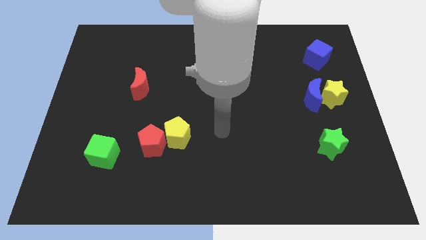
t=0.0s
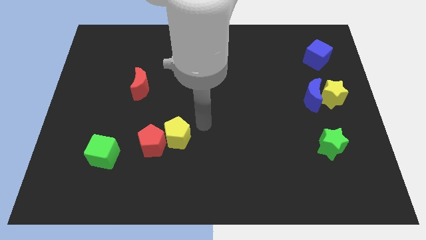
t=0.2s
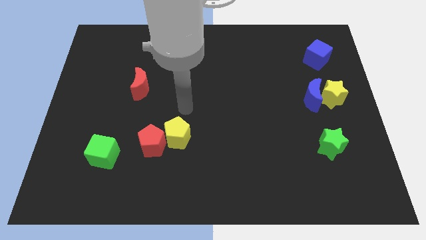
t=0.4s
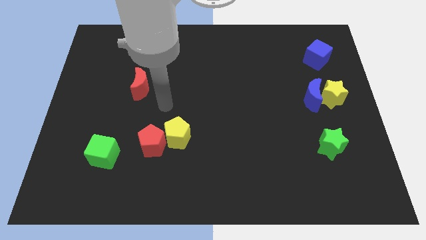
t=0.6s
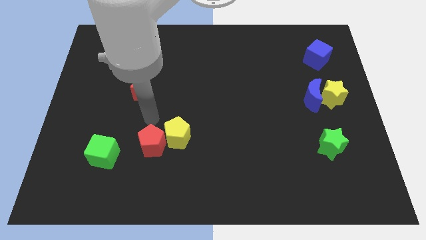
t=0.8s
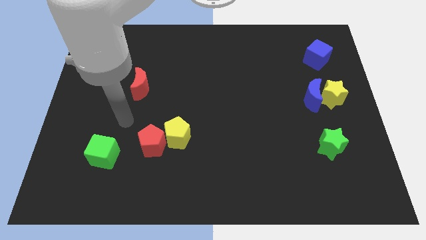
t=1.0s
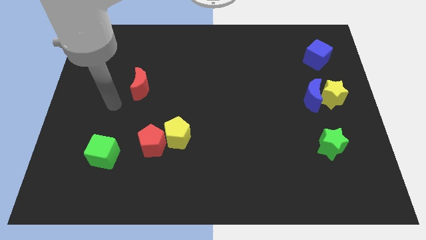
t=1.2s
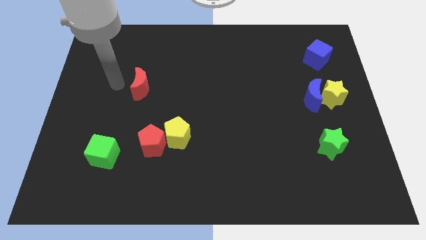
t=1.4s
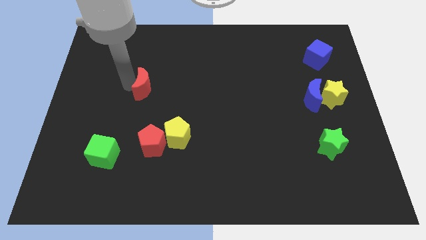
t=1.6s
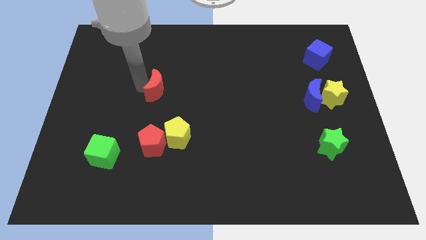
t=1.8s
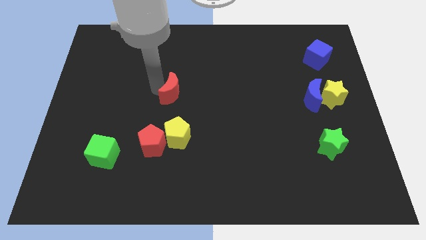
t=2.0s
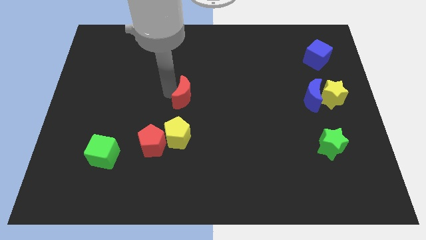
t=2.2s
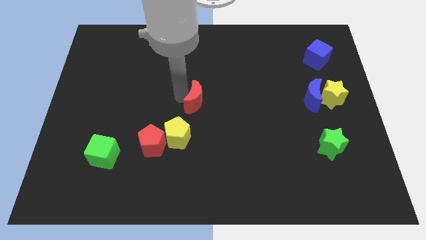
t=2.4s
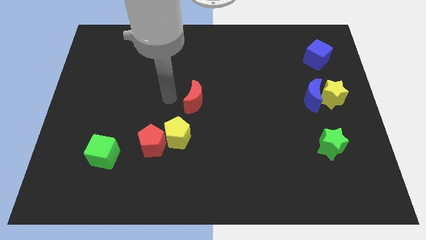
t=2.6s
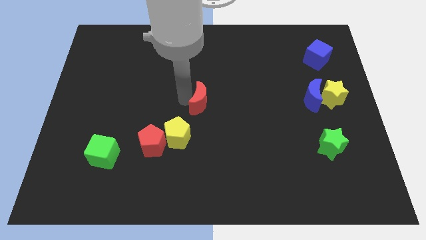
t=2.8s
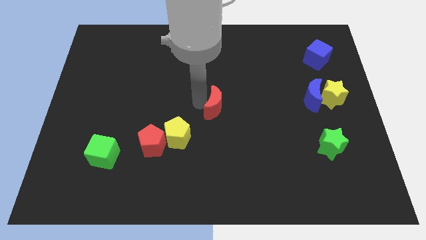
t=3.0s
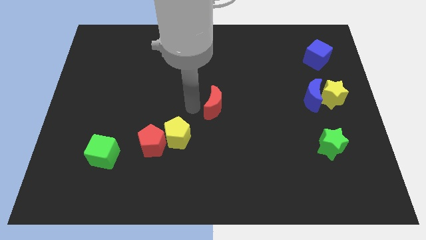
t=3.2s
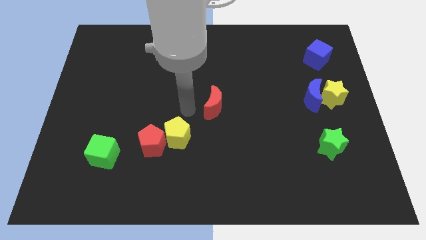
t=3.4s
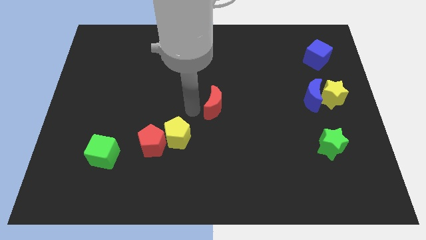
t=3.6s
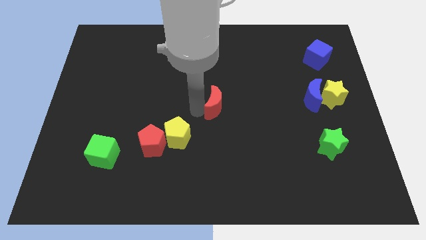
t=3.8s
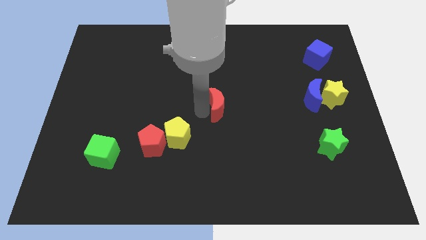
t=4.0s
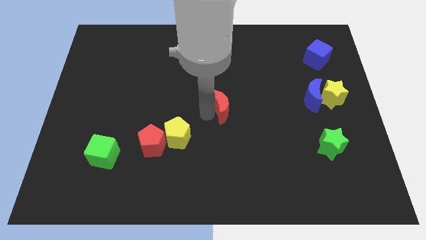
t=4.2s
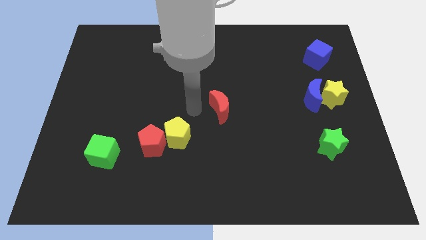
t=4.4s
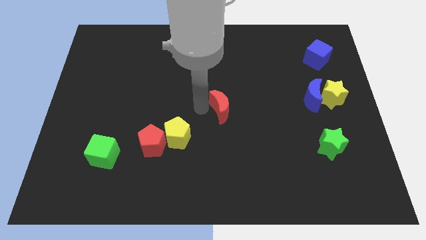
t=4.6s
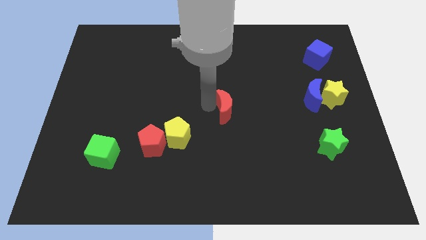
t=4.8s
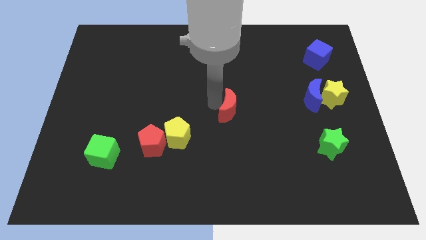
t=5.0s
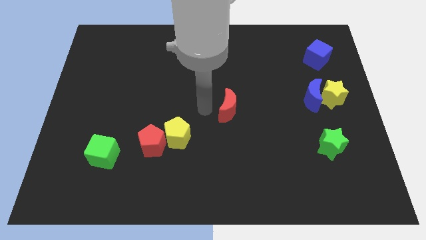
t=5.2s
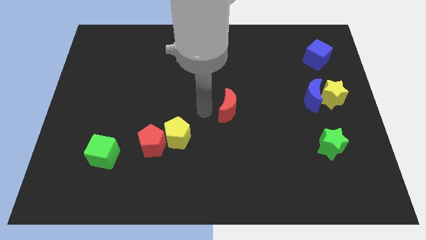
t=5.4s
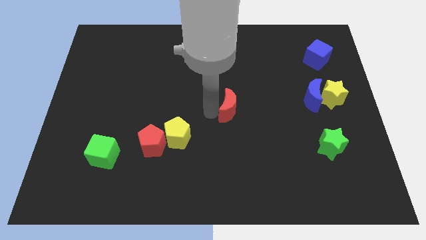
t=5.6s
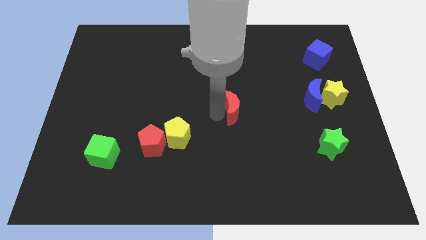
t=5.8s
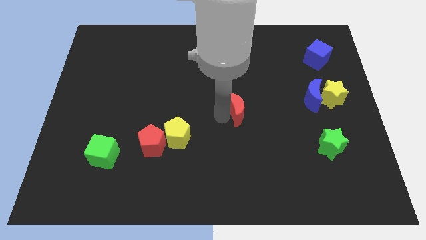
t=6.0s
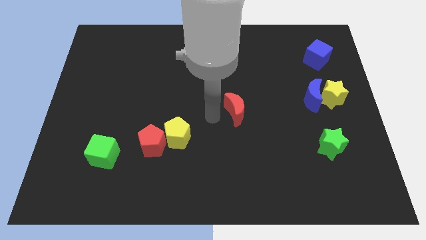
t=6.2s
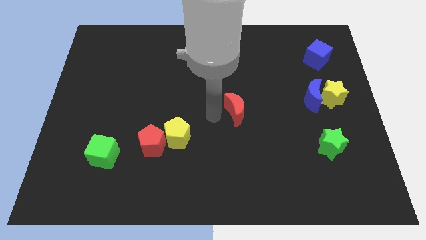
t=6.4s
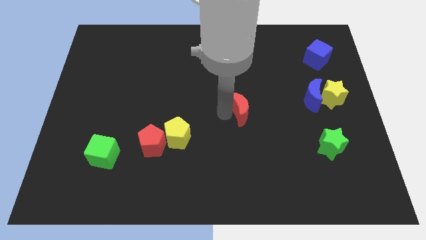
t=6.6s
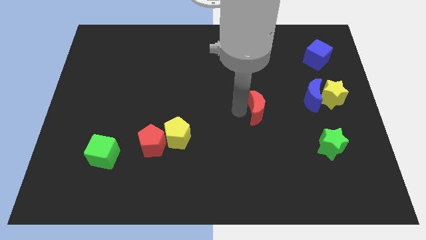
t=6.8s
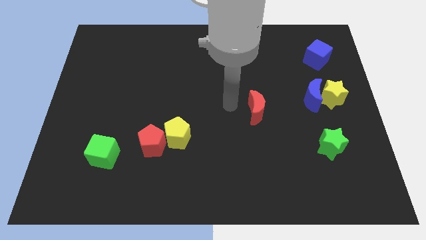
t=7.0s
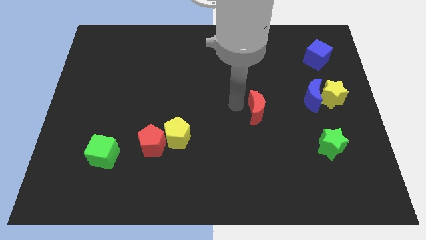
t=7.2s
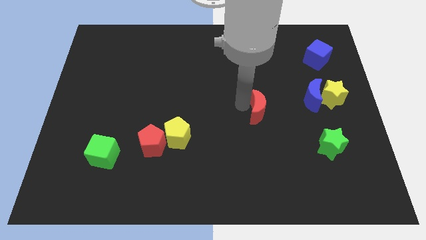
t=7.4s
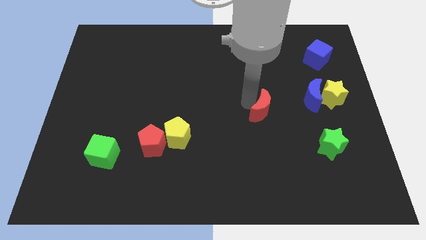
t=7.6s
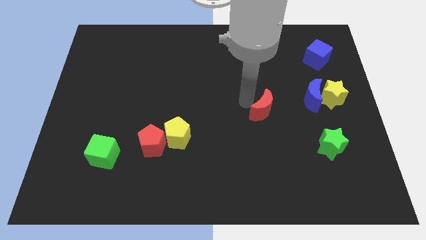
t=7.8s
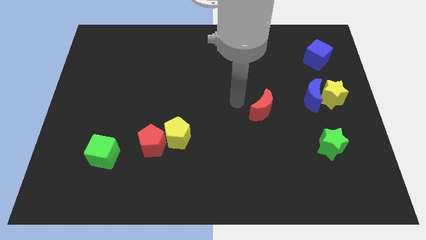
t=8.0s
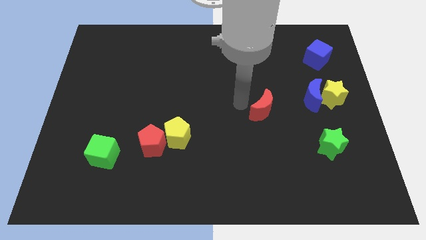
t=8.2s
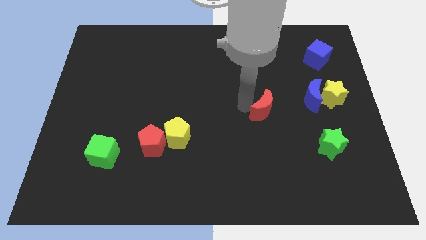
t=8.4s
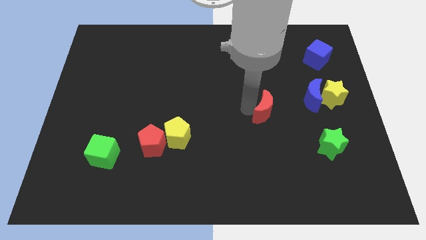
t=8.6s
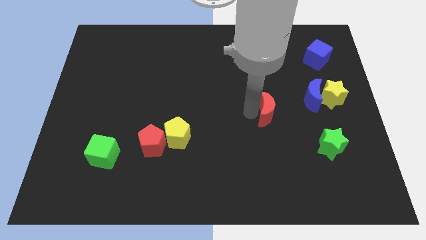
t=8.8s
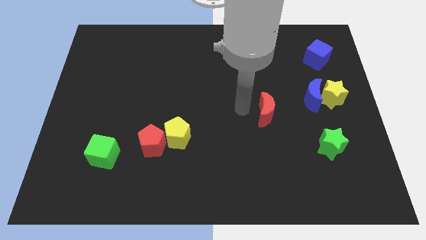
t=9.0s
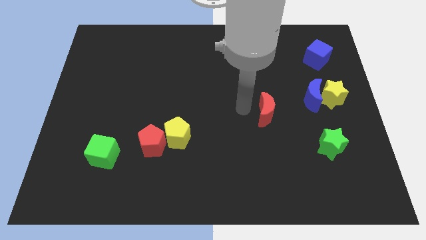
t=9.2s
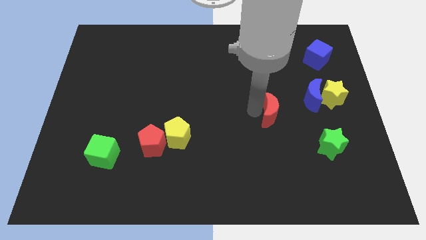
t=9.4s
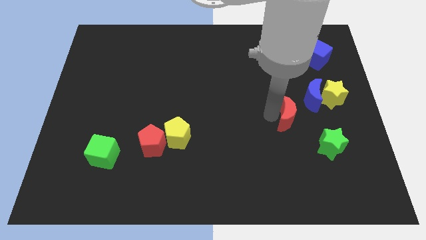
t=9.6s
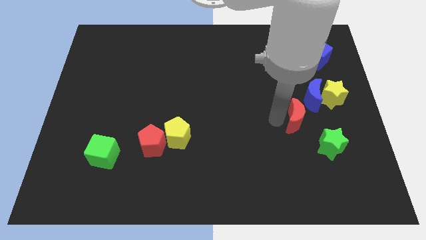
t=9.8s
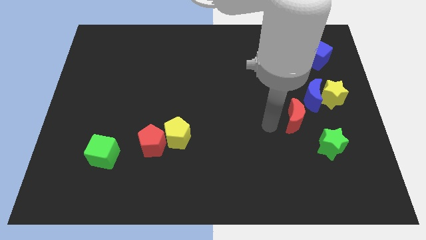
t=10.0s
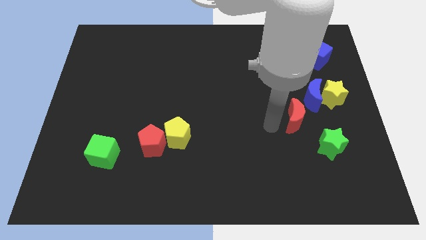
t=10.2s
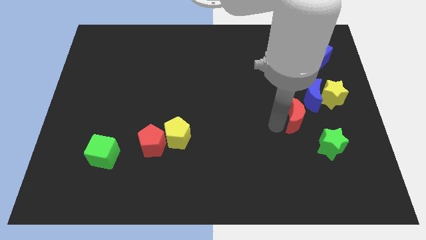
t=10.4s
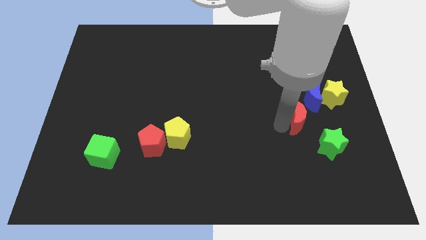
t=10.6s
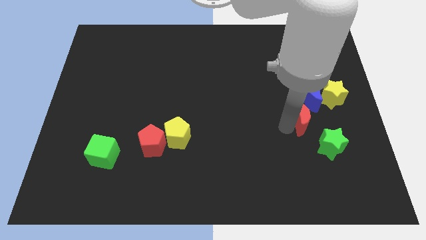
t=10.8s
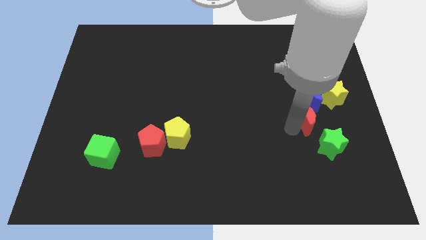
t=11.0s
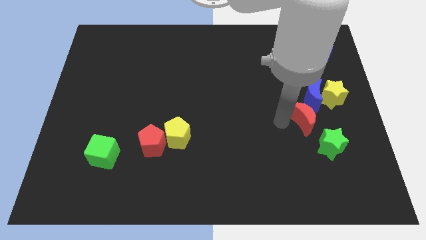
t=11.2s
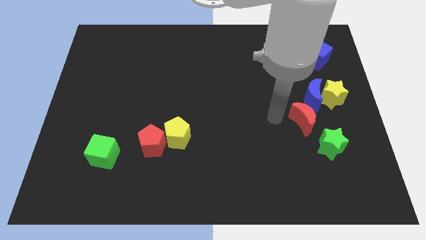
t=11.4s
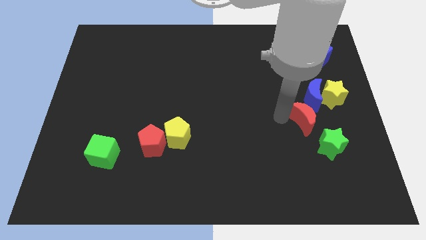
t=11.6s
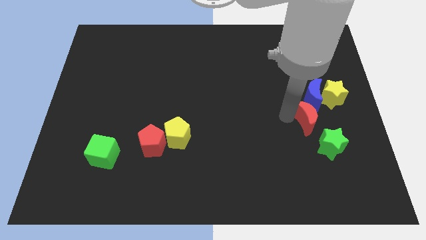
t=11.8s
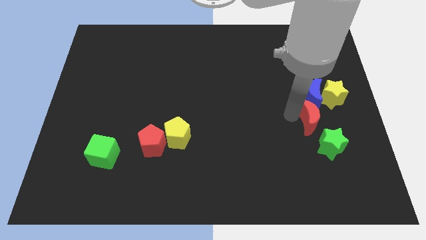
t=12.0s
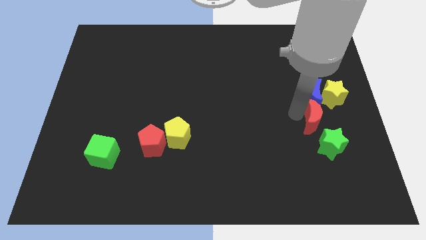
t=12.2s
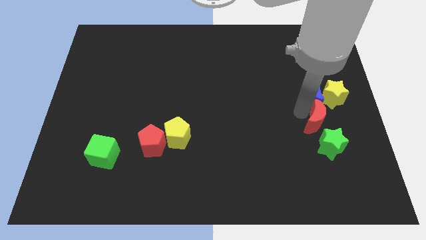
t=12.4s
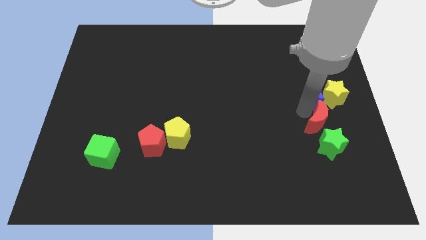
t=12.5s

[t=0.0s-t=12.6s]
move the red moon below the yellow star
